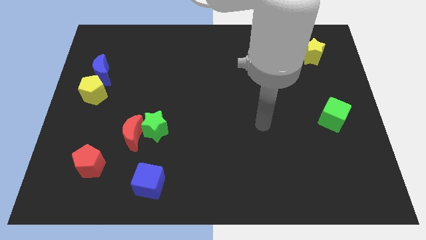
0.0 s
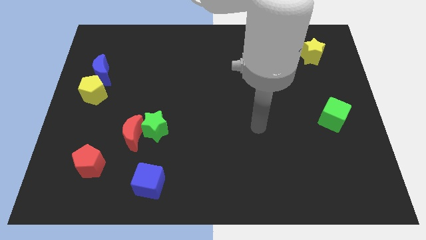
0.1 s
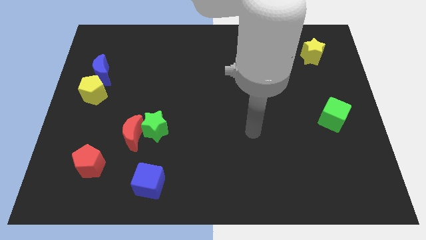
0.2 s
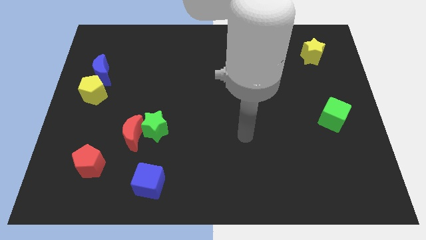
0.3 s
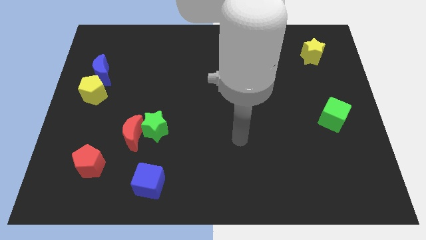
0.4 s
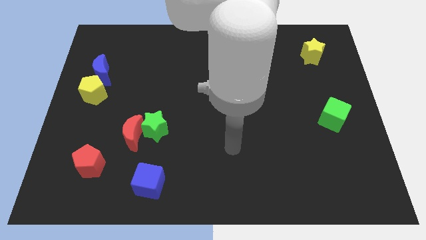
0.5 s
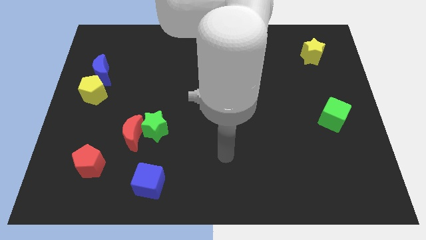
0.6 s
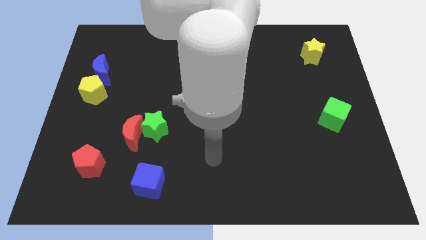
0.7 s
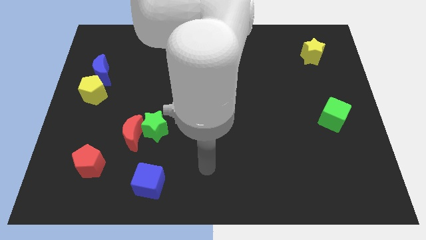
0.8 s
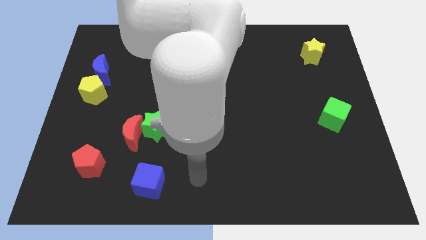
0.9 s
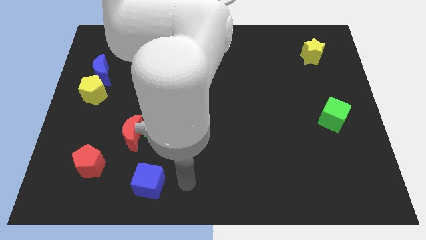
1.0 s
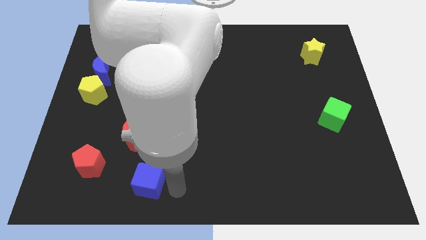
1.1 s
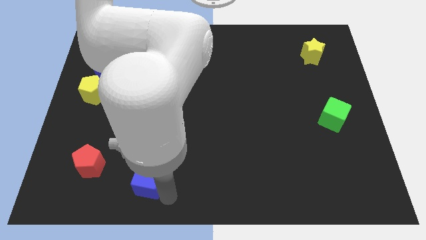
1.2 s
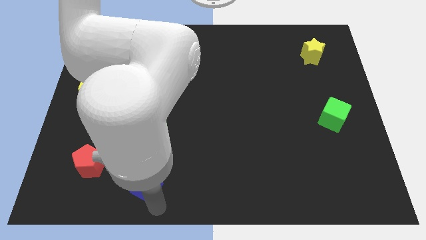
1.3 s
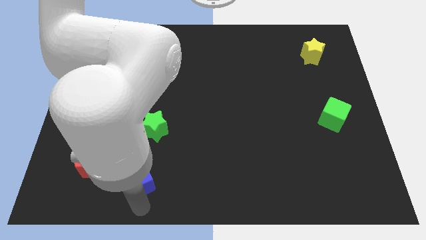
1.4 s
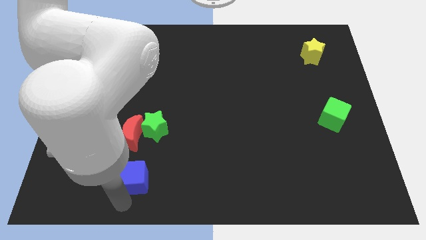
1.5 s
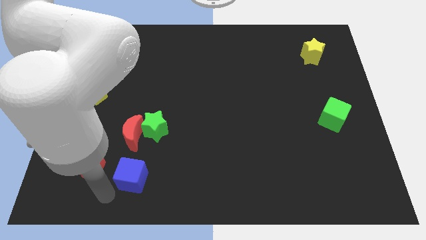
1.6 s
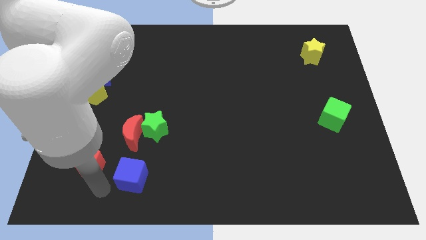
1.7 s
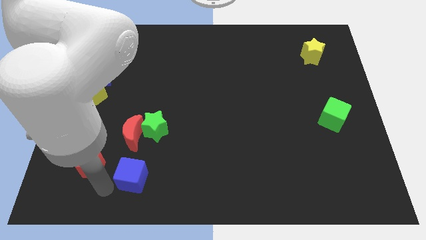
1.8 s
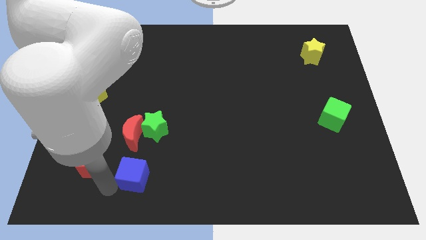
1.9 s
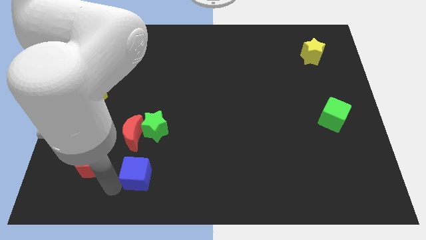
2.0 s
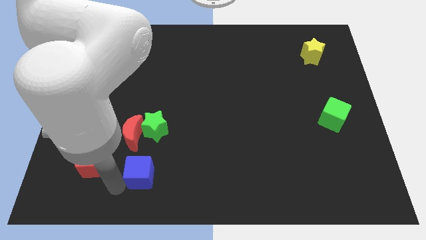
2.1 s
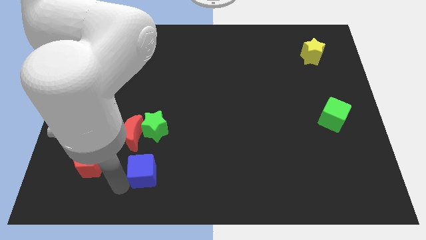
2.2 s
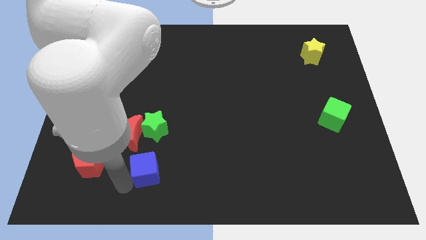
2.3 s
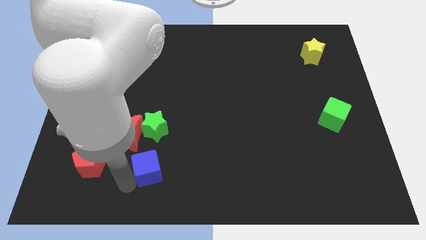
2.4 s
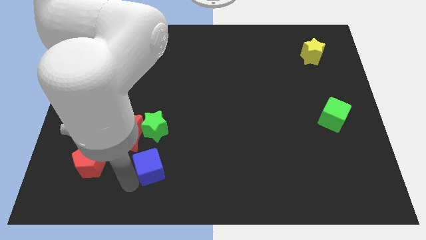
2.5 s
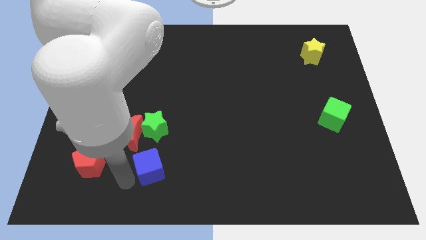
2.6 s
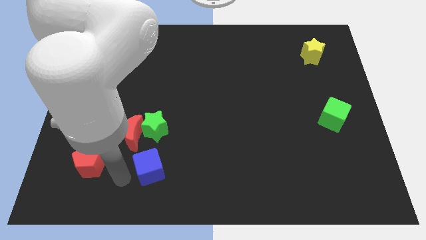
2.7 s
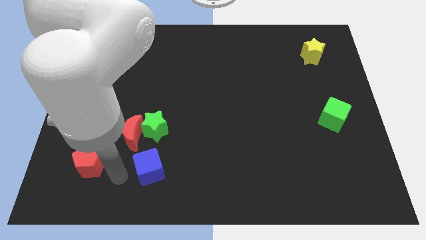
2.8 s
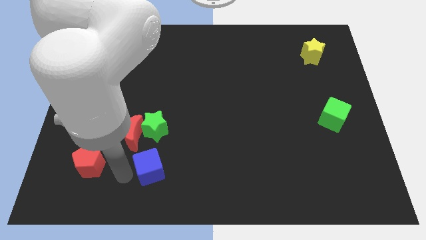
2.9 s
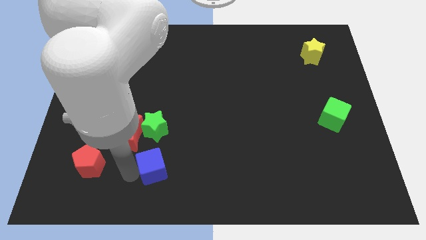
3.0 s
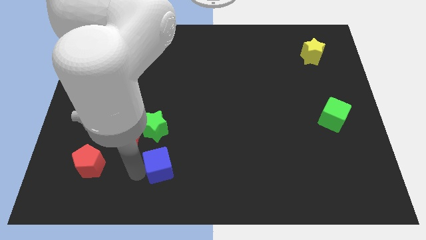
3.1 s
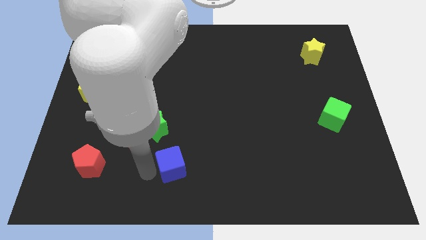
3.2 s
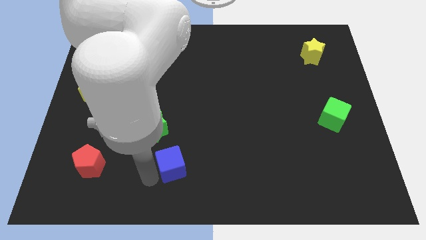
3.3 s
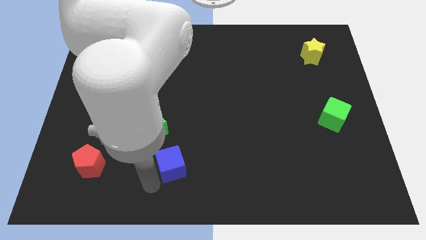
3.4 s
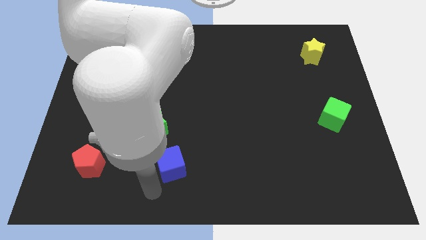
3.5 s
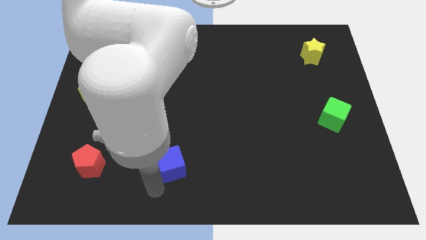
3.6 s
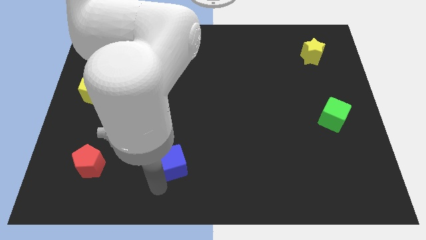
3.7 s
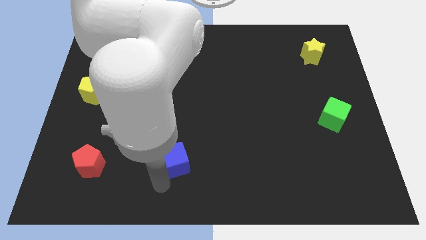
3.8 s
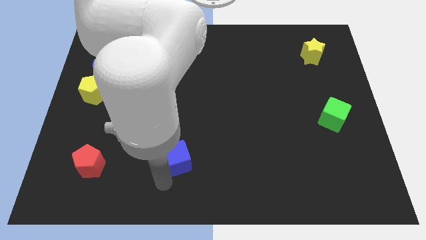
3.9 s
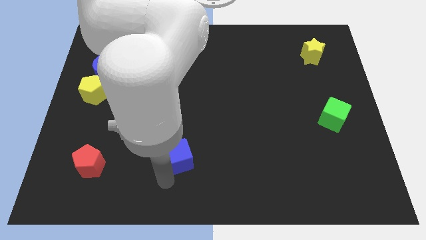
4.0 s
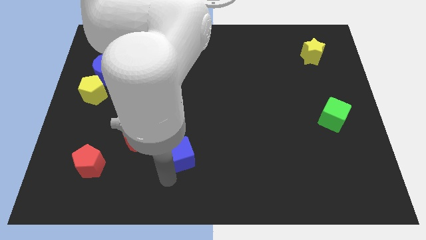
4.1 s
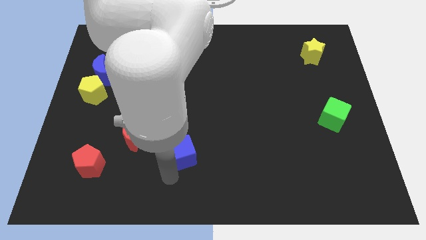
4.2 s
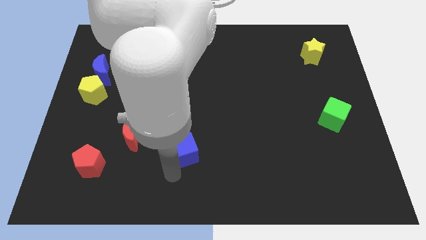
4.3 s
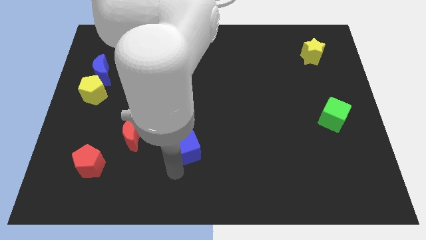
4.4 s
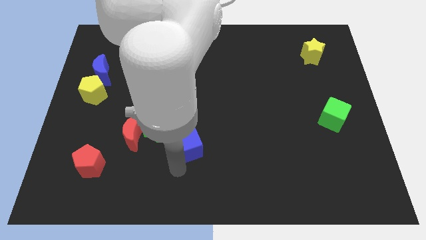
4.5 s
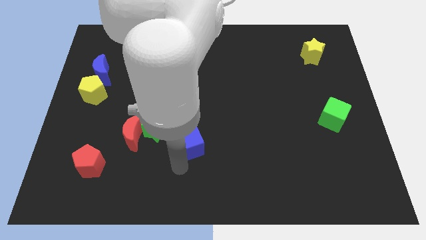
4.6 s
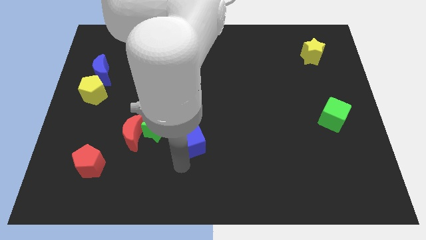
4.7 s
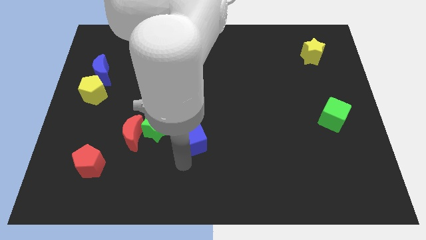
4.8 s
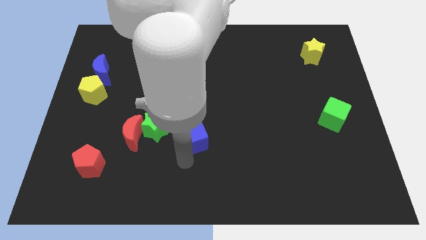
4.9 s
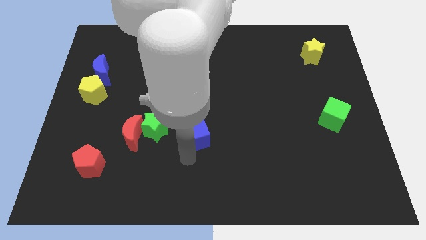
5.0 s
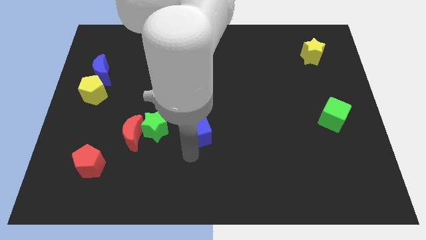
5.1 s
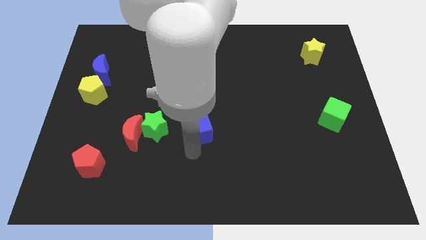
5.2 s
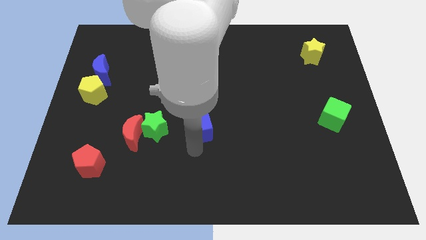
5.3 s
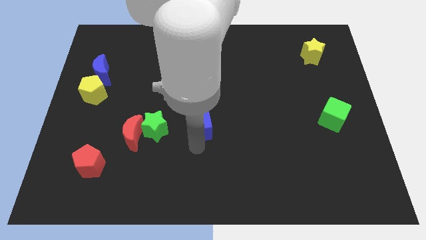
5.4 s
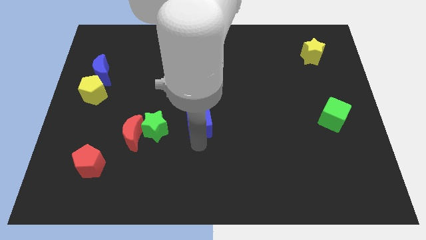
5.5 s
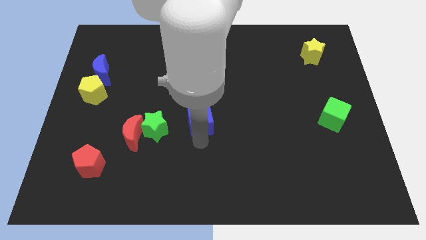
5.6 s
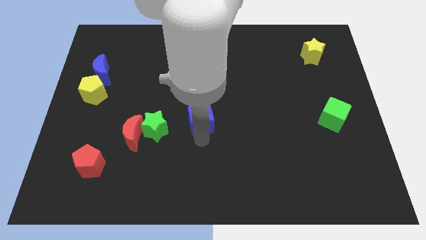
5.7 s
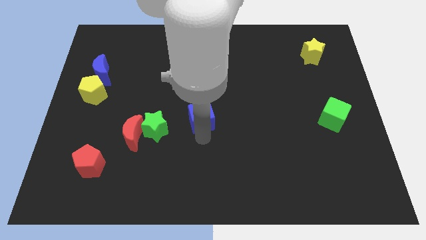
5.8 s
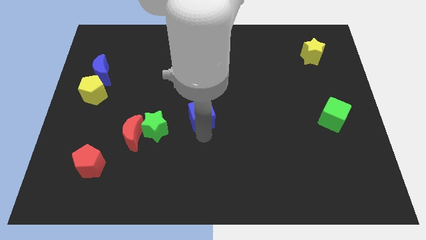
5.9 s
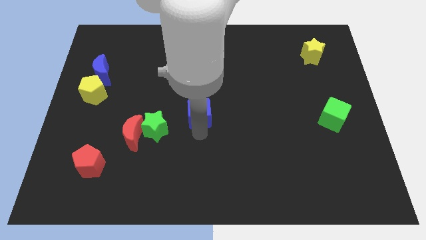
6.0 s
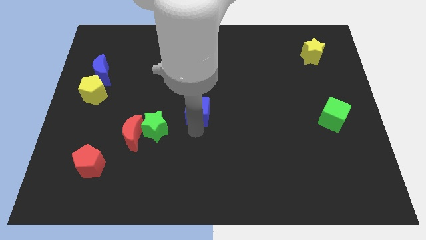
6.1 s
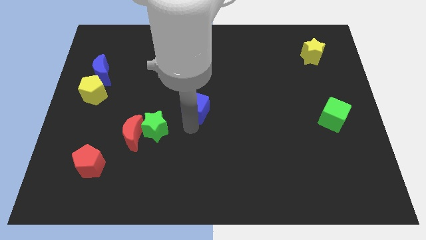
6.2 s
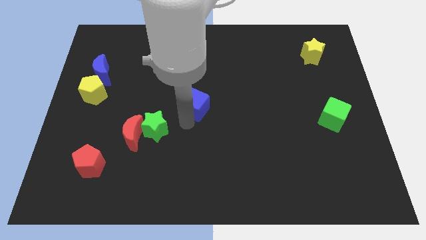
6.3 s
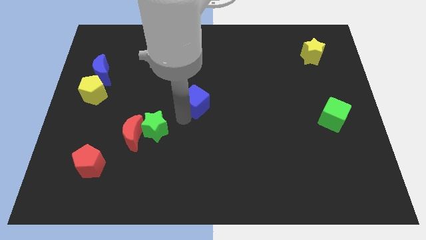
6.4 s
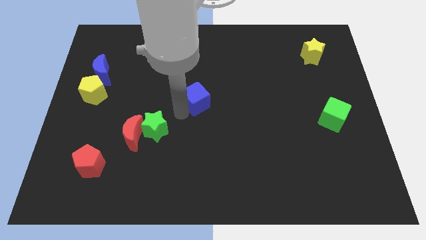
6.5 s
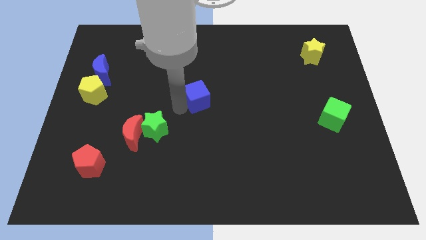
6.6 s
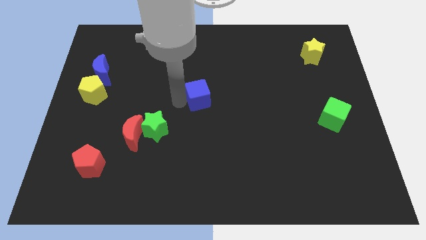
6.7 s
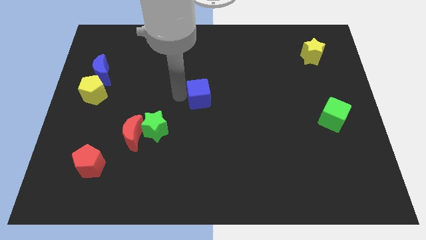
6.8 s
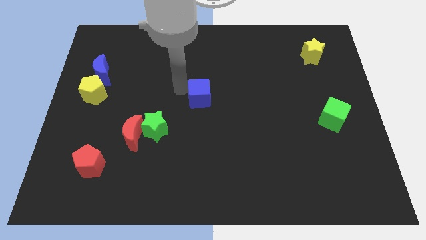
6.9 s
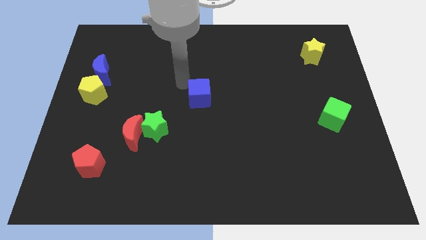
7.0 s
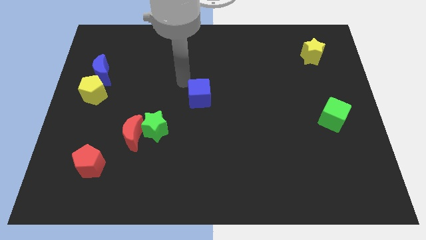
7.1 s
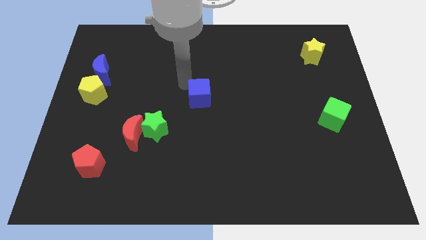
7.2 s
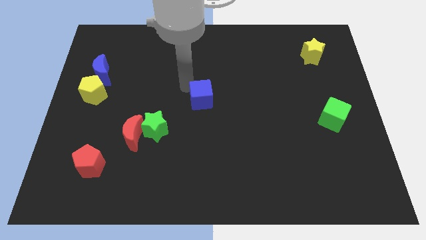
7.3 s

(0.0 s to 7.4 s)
push the blue cube up and then right

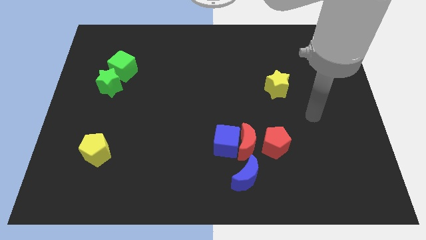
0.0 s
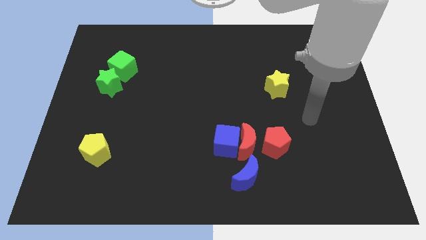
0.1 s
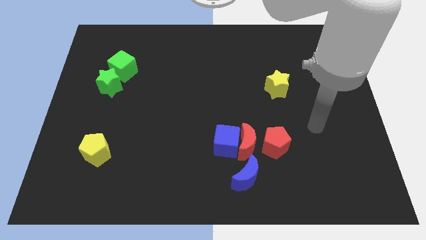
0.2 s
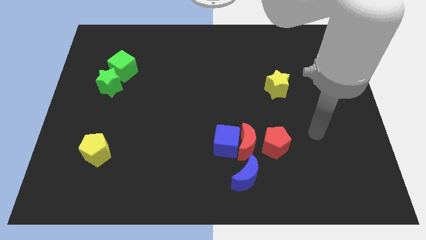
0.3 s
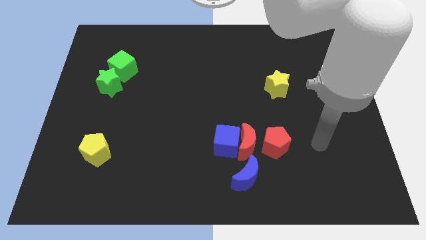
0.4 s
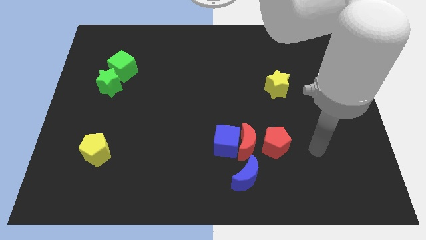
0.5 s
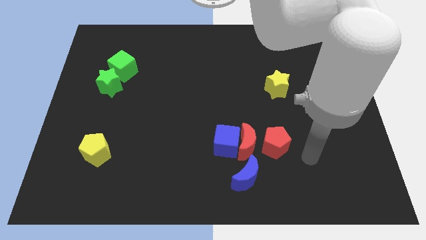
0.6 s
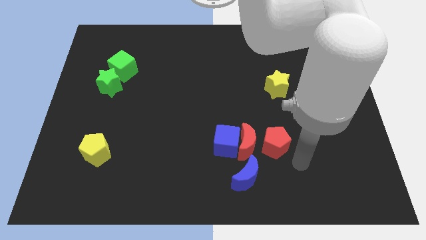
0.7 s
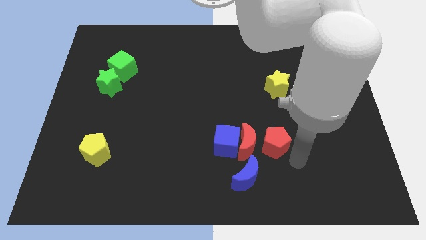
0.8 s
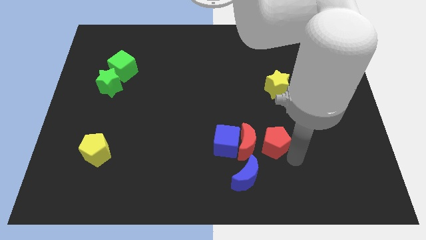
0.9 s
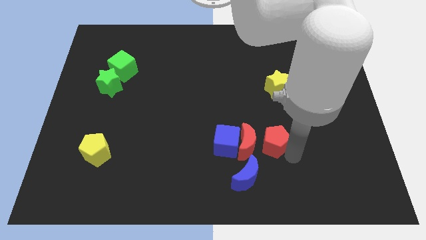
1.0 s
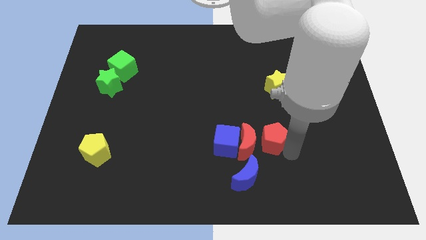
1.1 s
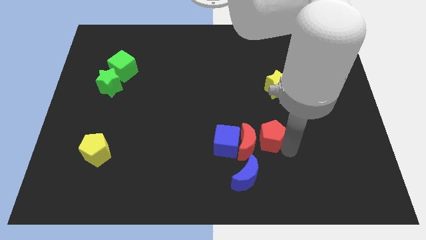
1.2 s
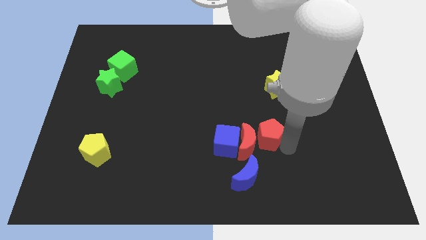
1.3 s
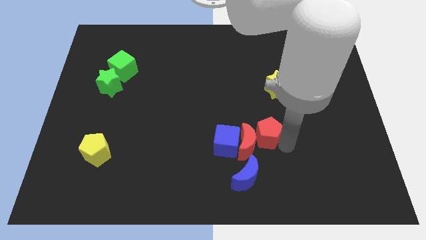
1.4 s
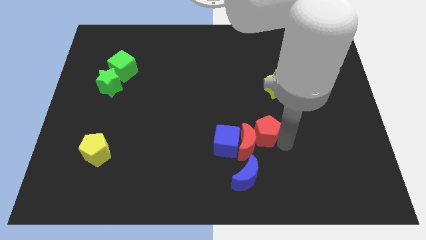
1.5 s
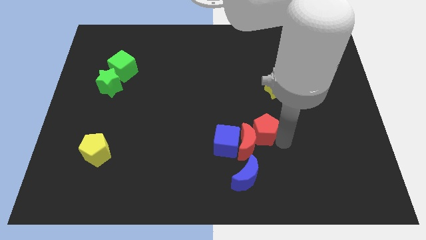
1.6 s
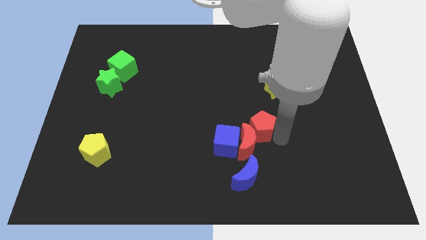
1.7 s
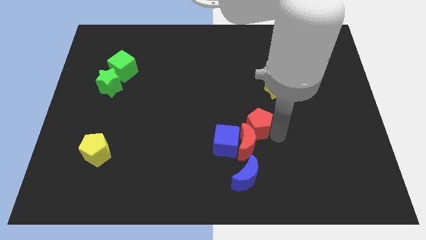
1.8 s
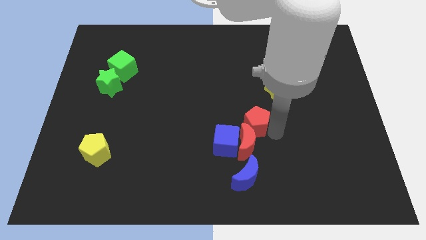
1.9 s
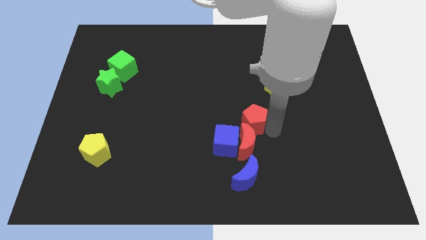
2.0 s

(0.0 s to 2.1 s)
push the red pentagon somewhat upwards and then left
